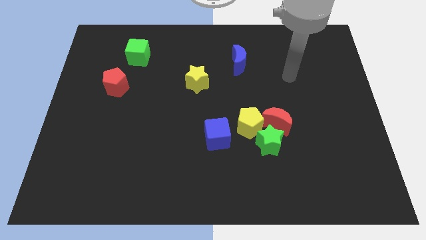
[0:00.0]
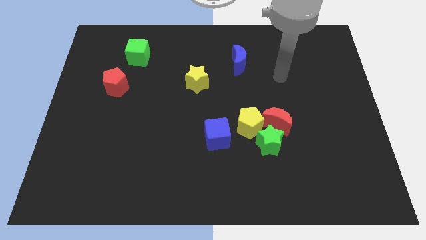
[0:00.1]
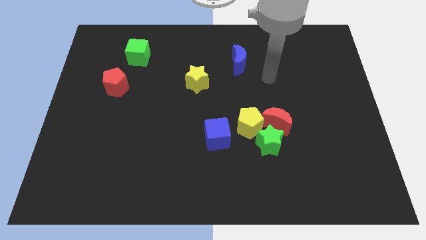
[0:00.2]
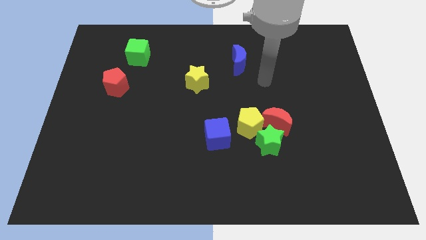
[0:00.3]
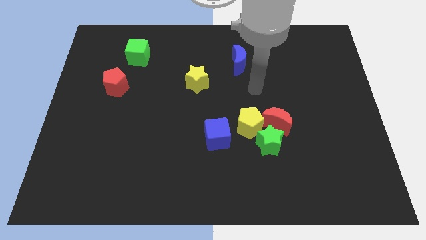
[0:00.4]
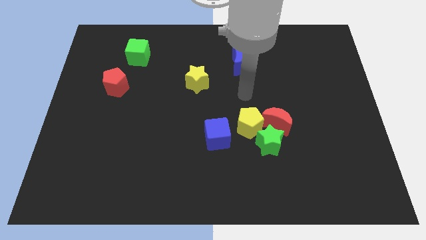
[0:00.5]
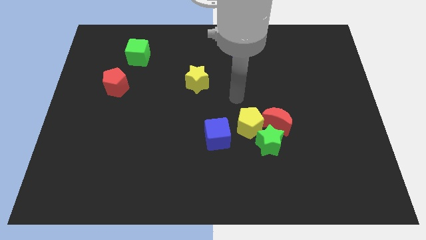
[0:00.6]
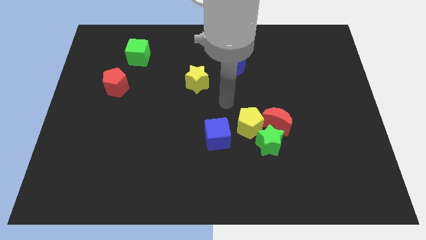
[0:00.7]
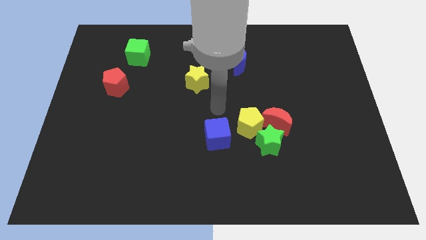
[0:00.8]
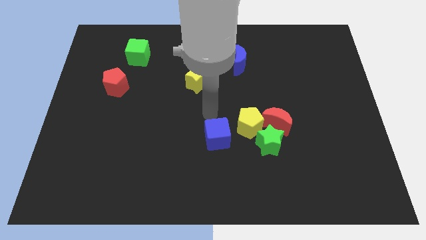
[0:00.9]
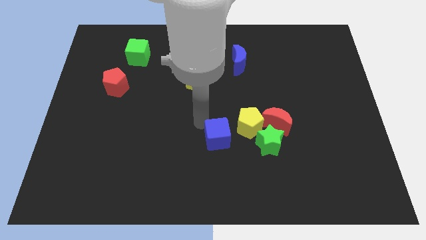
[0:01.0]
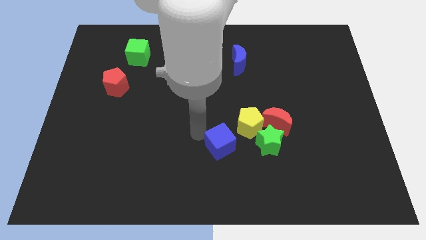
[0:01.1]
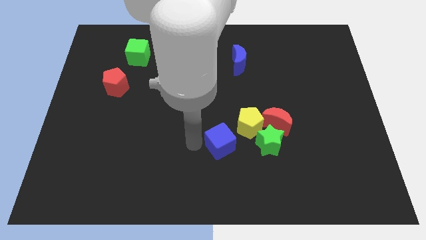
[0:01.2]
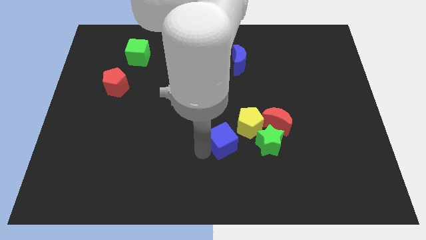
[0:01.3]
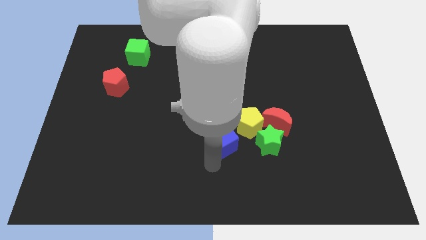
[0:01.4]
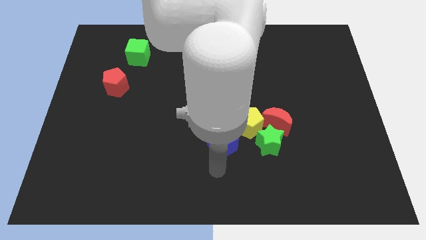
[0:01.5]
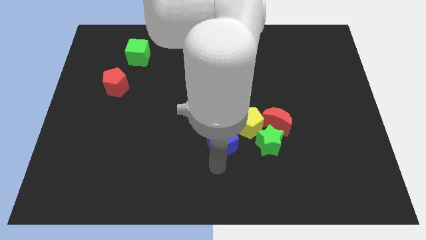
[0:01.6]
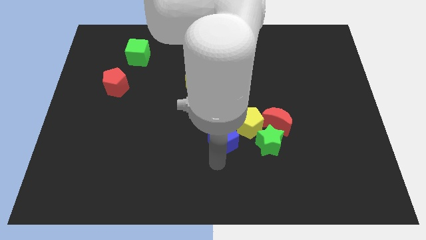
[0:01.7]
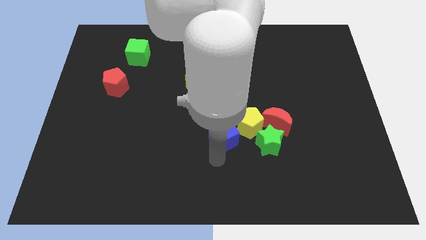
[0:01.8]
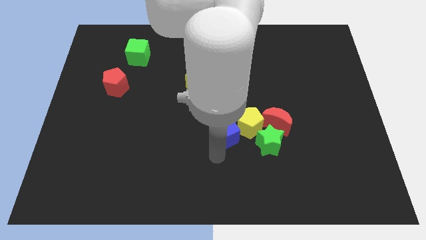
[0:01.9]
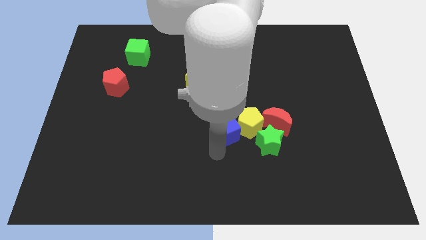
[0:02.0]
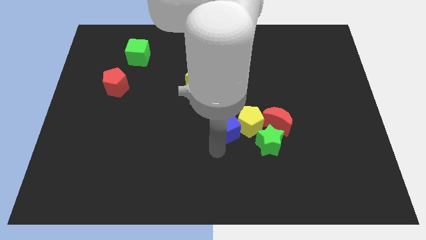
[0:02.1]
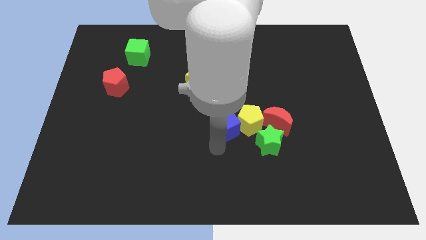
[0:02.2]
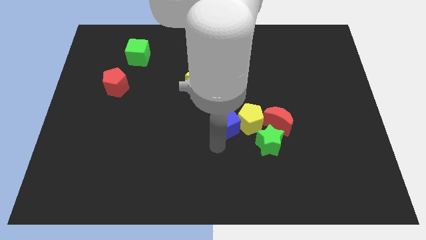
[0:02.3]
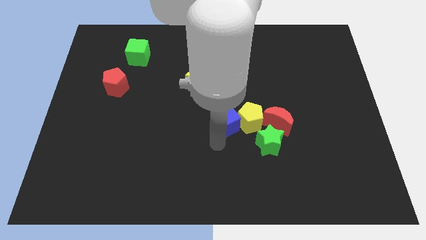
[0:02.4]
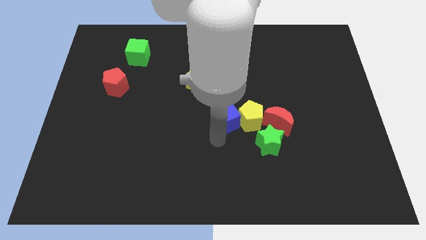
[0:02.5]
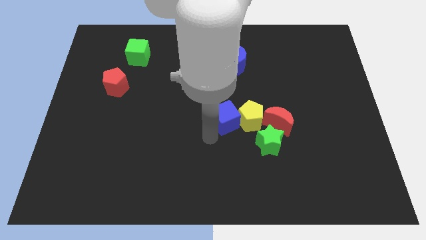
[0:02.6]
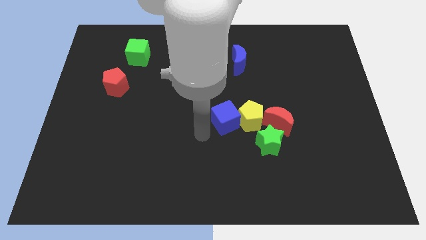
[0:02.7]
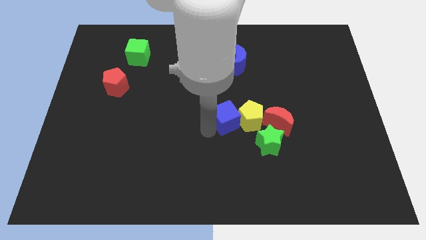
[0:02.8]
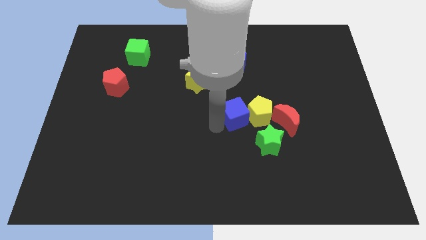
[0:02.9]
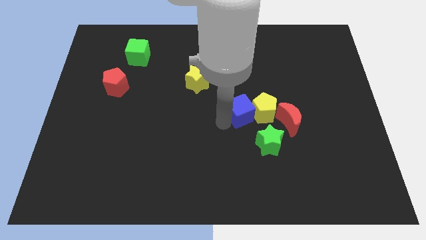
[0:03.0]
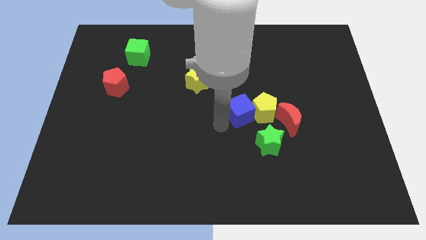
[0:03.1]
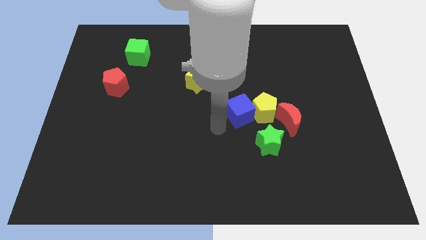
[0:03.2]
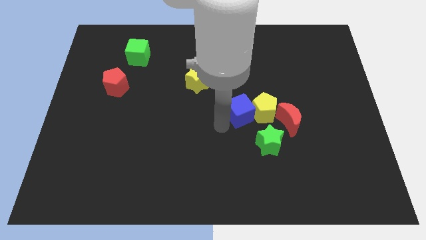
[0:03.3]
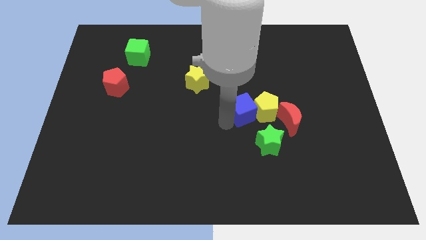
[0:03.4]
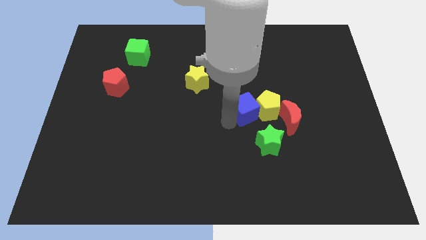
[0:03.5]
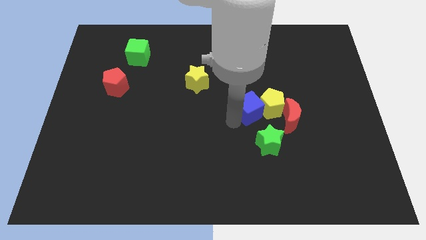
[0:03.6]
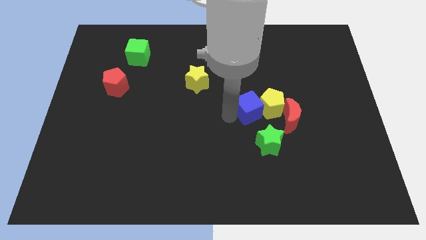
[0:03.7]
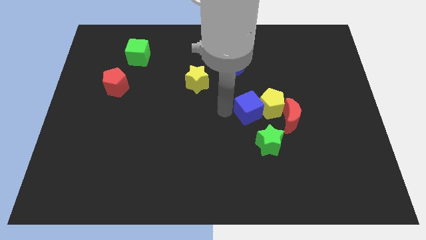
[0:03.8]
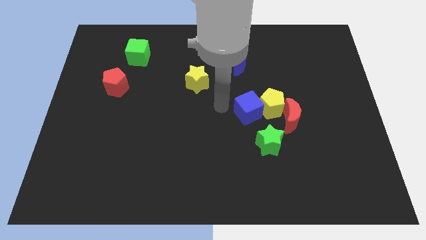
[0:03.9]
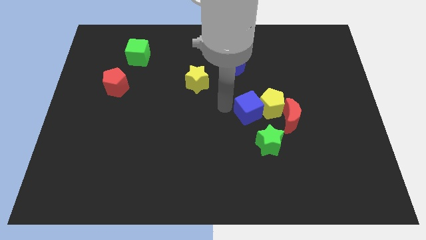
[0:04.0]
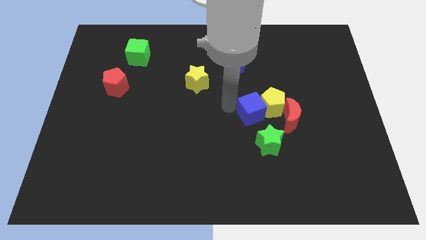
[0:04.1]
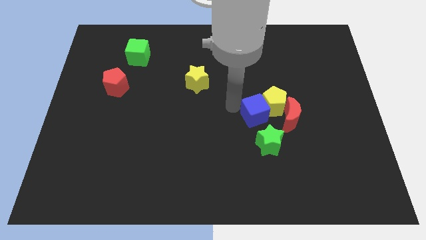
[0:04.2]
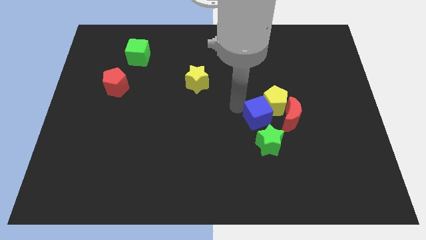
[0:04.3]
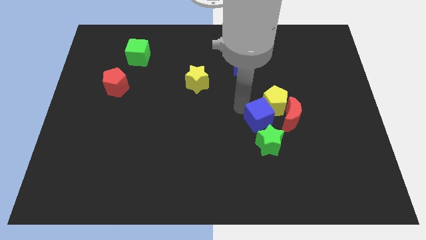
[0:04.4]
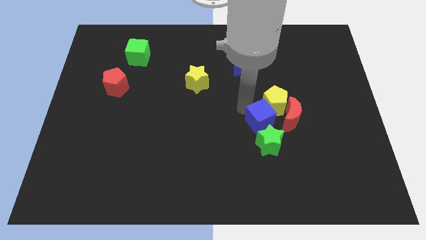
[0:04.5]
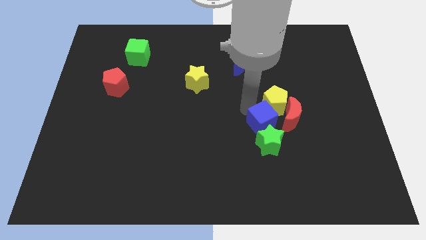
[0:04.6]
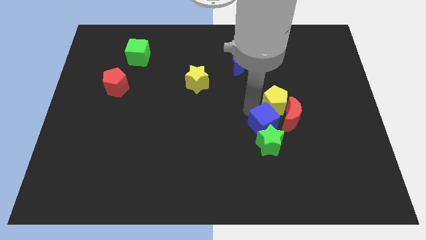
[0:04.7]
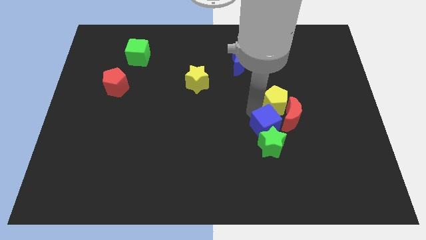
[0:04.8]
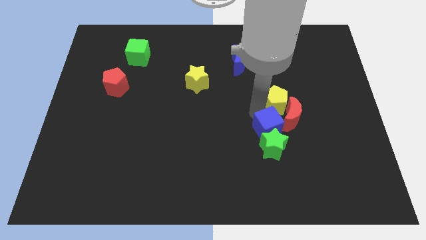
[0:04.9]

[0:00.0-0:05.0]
put the blue cube towards the red moon

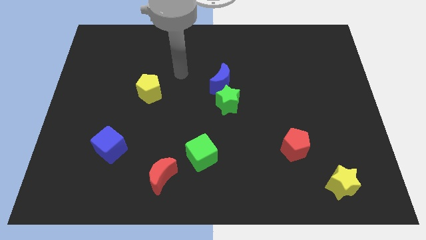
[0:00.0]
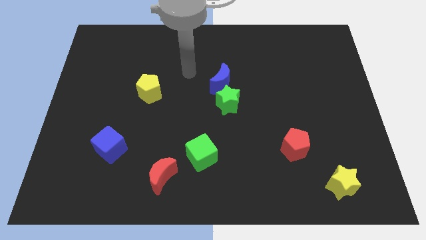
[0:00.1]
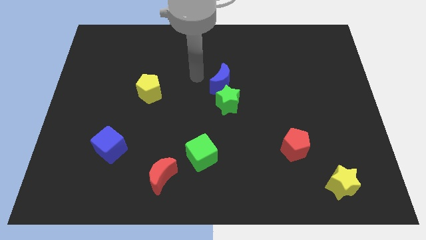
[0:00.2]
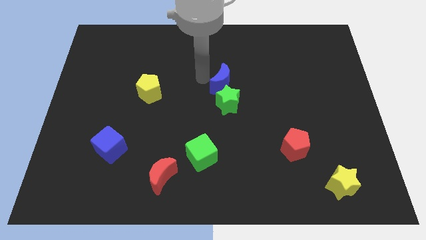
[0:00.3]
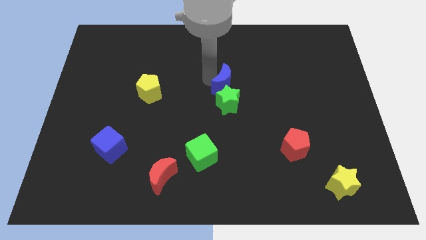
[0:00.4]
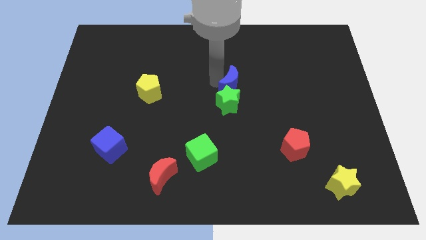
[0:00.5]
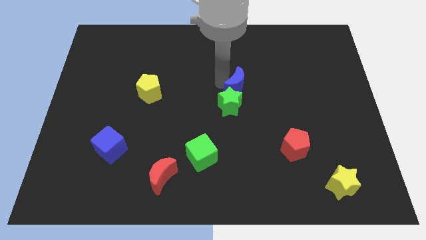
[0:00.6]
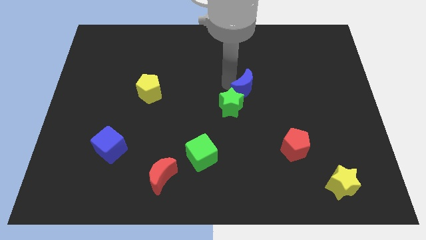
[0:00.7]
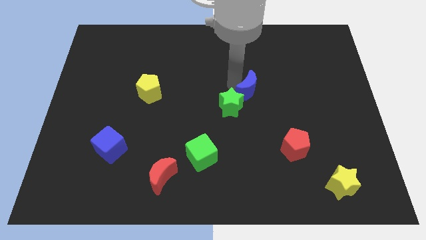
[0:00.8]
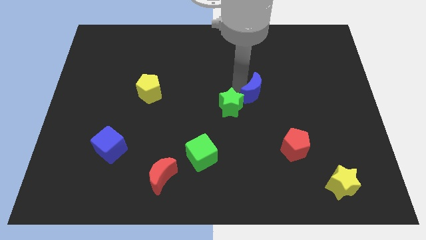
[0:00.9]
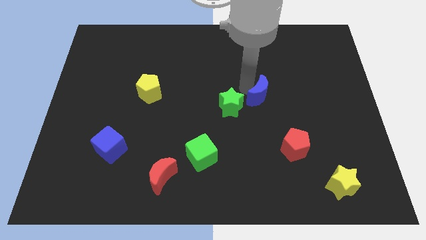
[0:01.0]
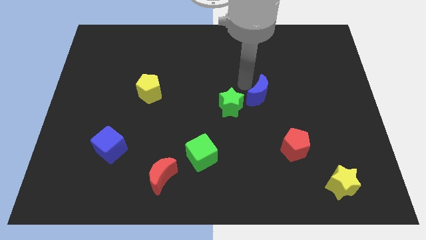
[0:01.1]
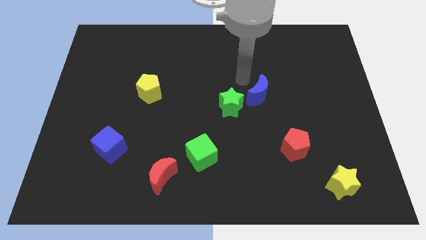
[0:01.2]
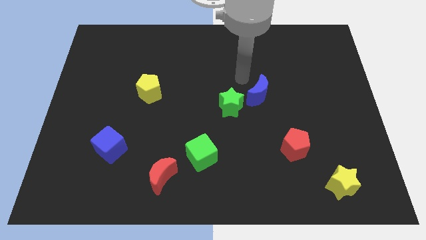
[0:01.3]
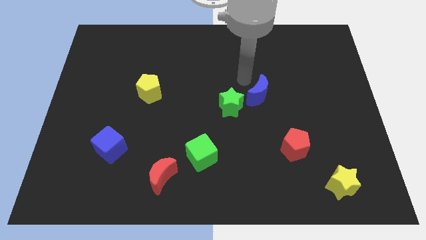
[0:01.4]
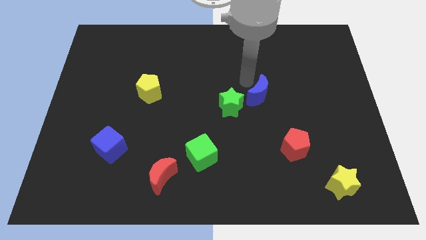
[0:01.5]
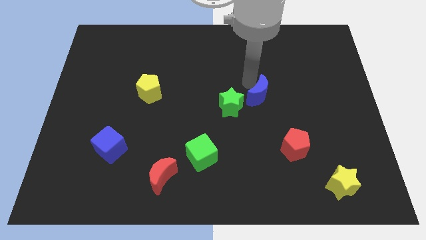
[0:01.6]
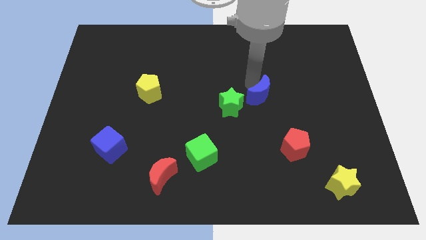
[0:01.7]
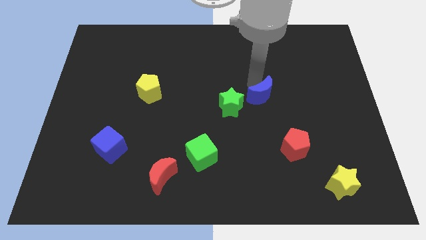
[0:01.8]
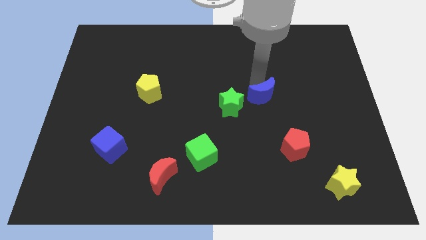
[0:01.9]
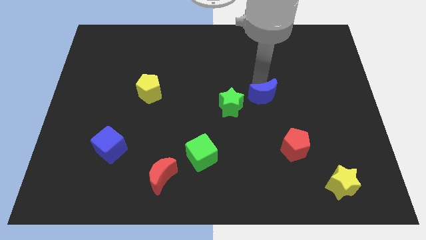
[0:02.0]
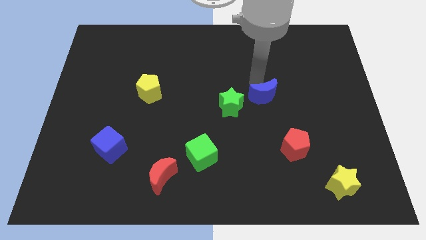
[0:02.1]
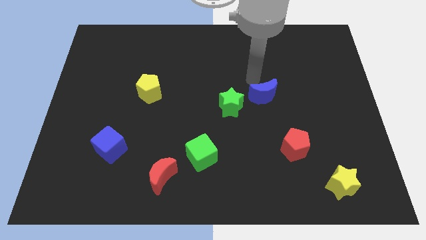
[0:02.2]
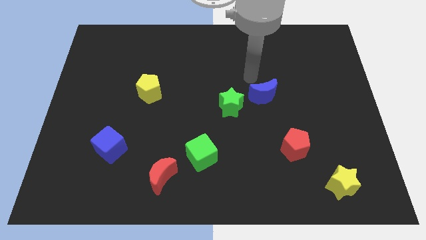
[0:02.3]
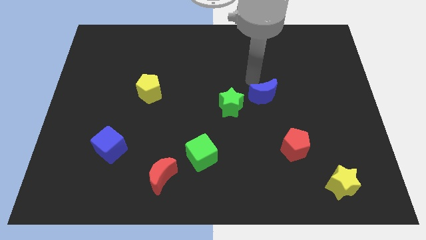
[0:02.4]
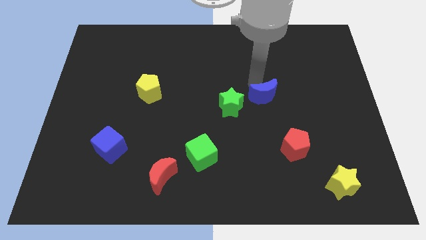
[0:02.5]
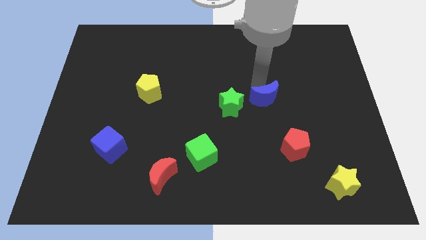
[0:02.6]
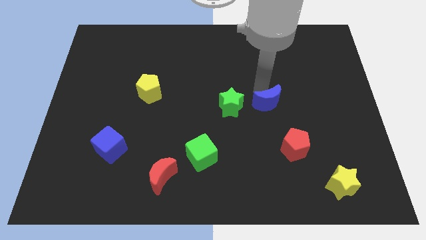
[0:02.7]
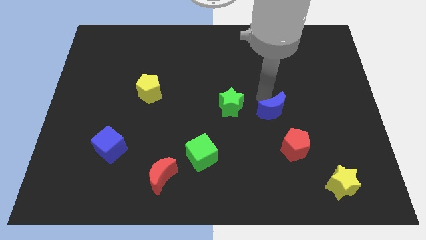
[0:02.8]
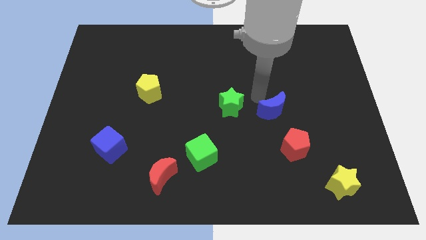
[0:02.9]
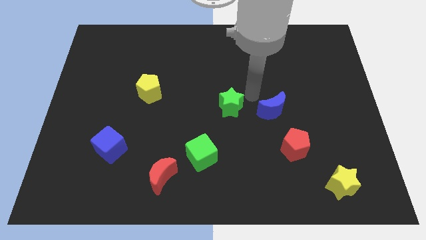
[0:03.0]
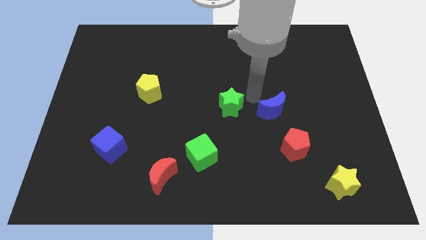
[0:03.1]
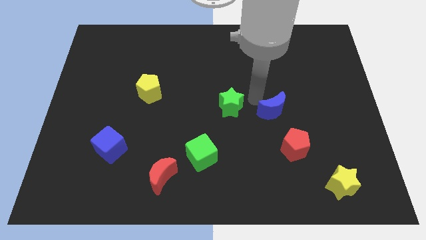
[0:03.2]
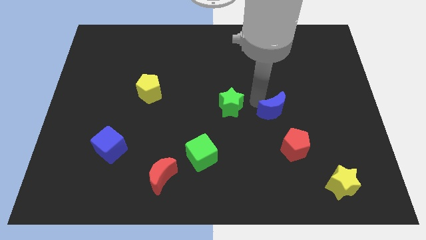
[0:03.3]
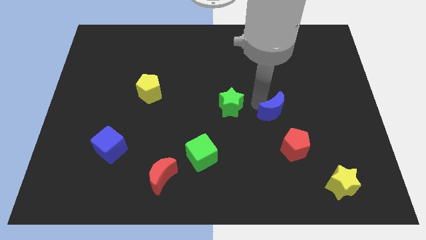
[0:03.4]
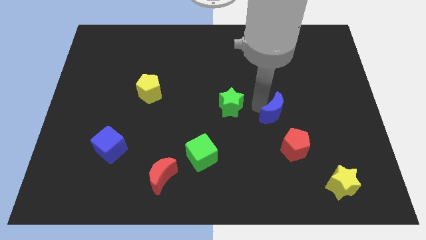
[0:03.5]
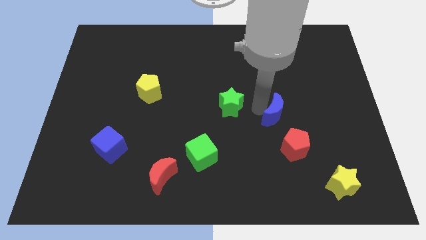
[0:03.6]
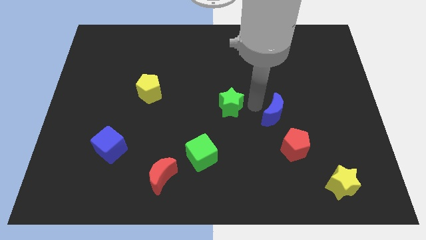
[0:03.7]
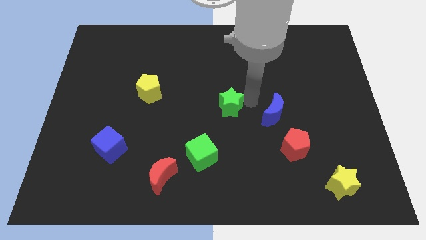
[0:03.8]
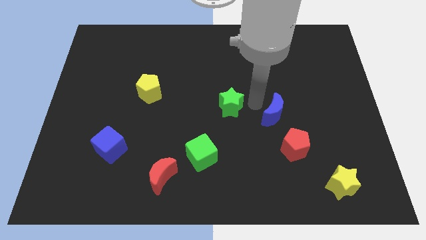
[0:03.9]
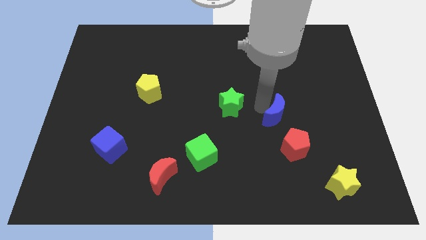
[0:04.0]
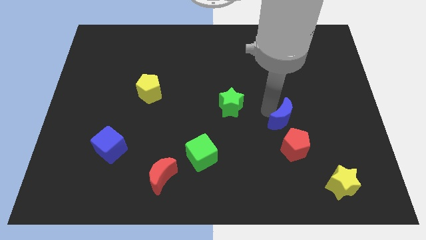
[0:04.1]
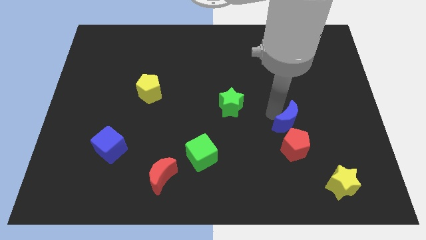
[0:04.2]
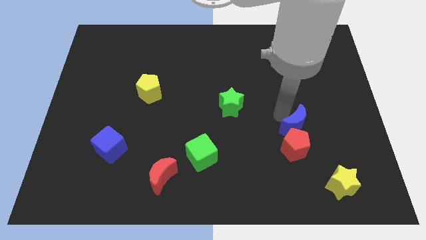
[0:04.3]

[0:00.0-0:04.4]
slide the blue moon next to the red pentagon
